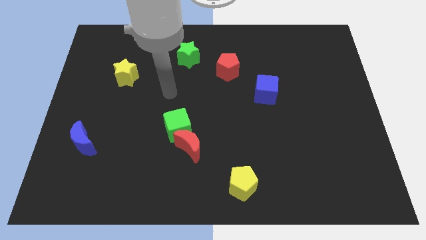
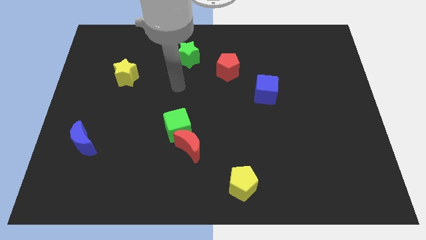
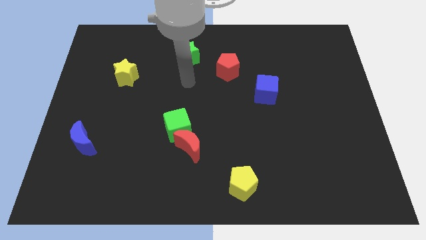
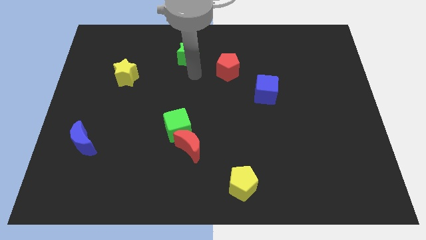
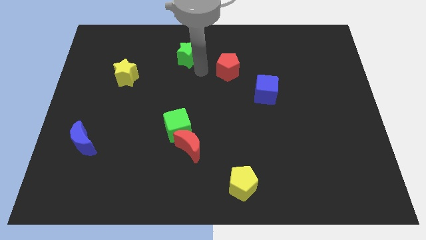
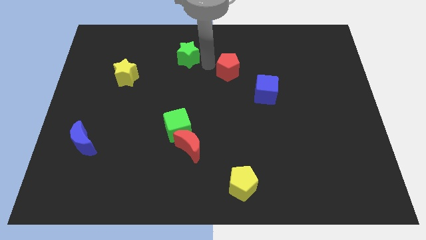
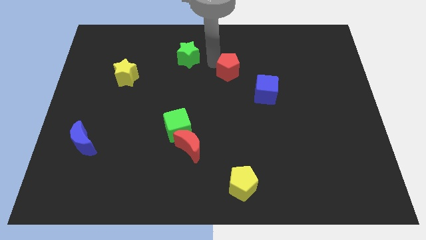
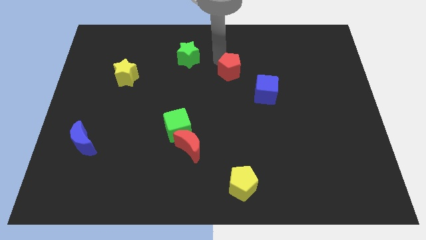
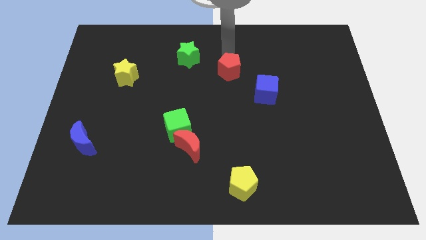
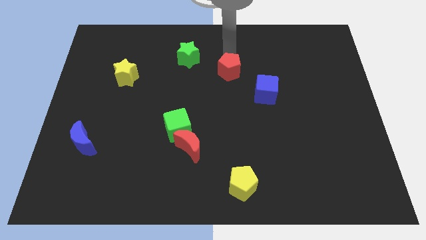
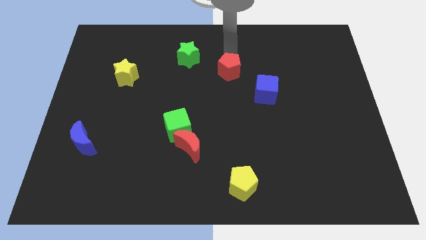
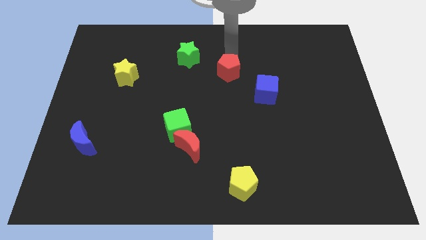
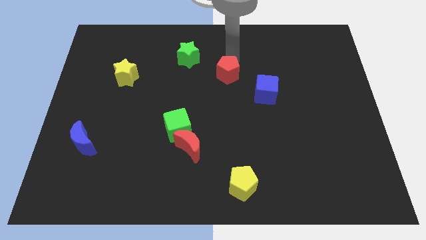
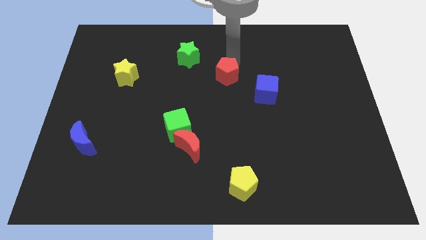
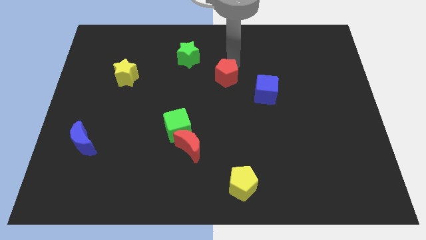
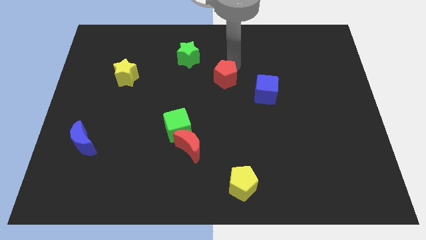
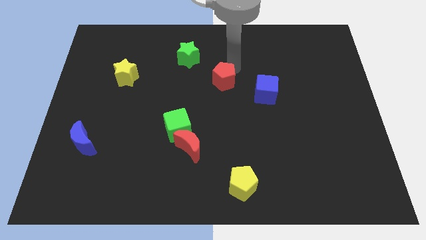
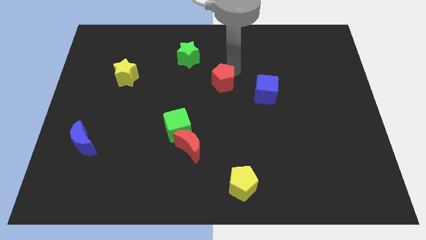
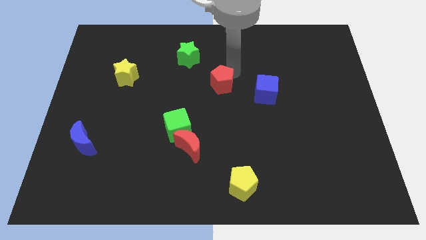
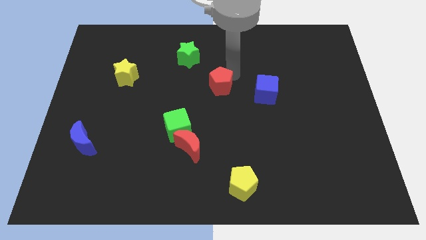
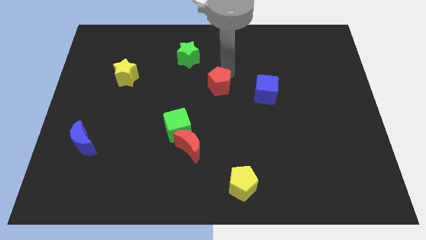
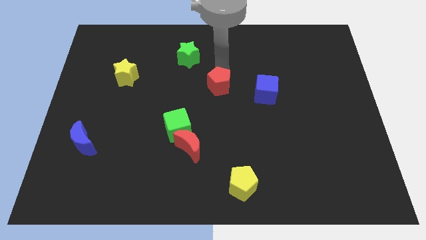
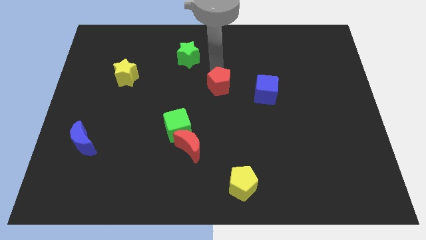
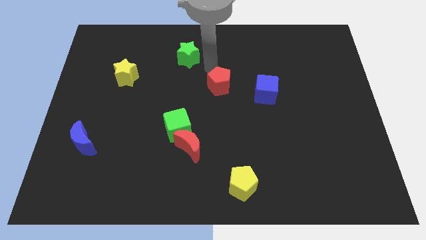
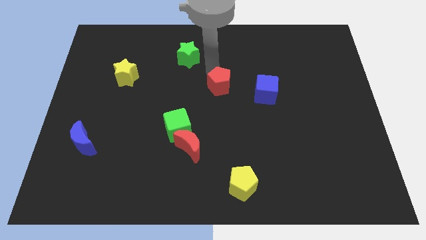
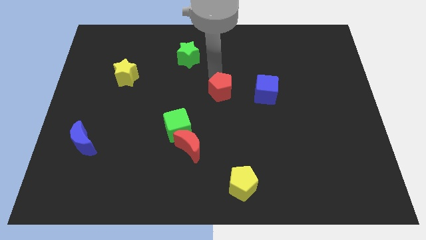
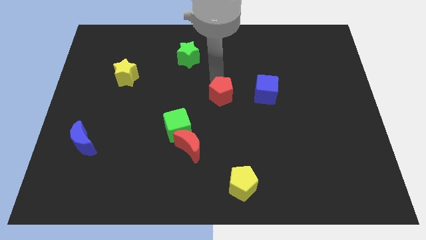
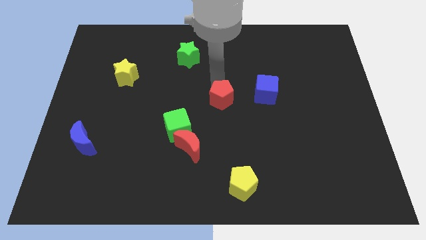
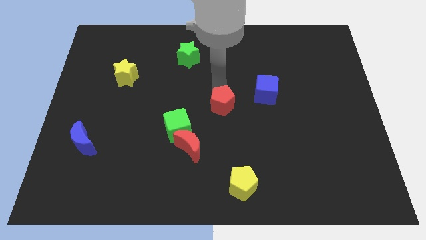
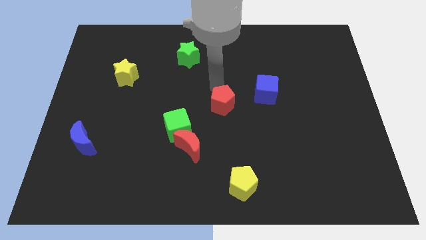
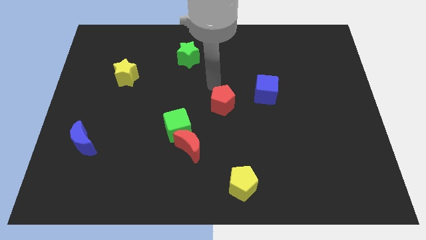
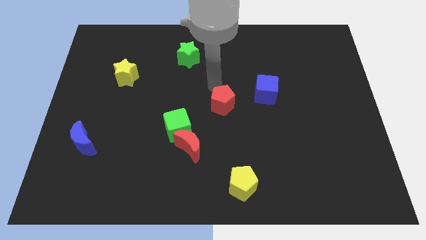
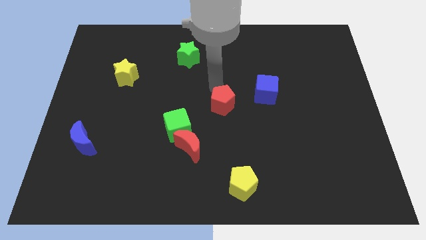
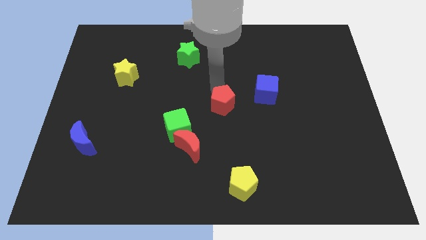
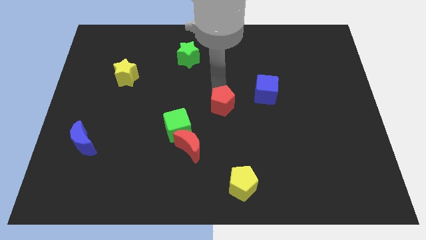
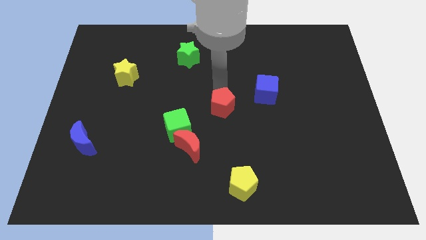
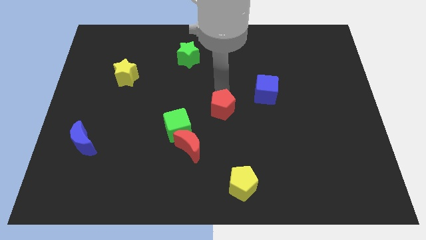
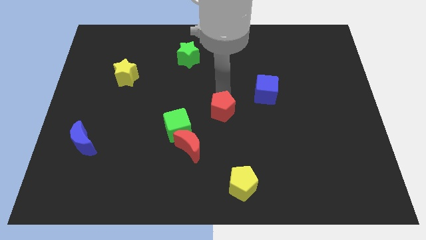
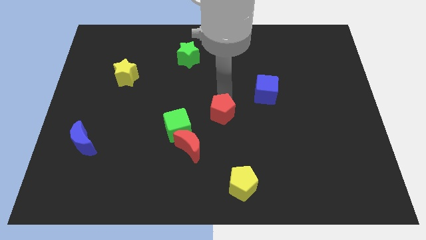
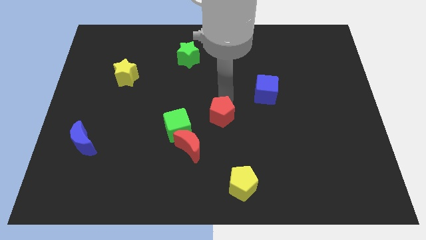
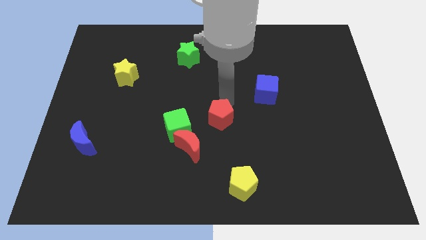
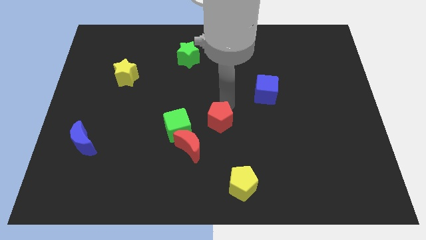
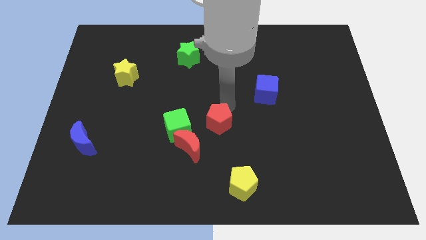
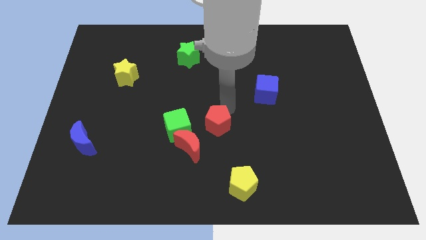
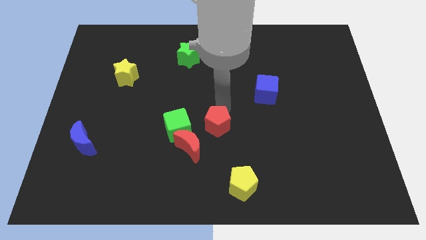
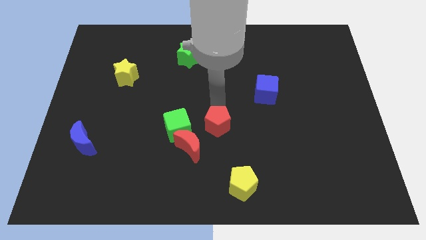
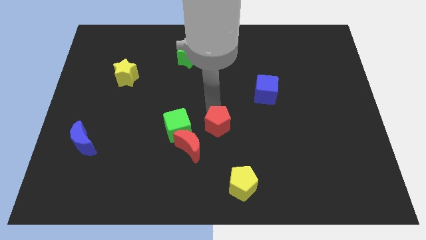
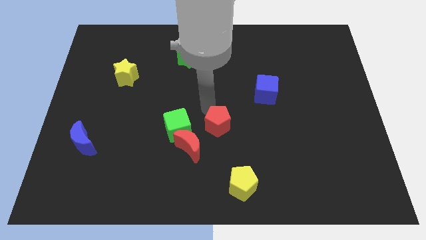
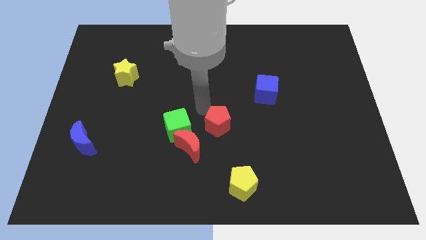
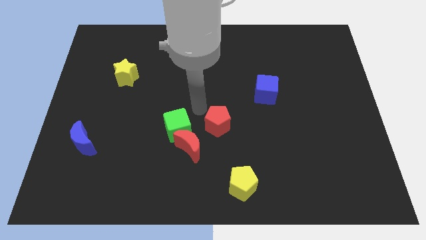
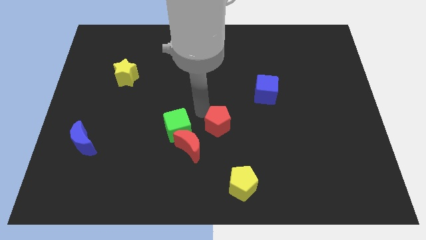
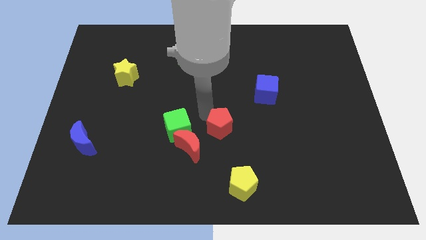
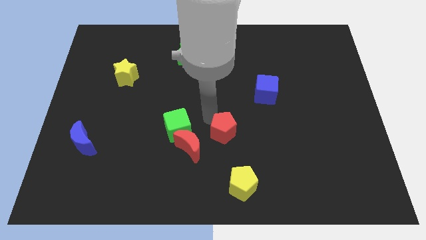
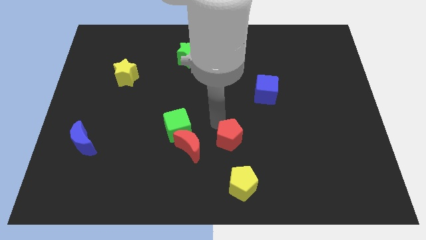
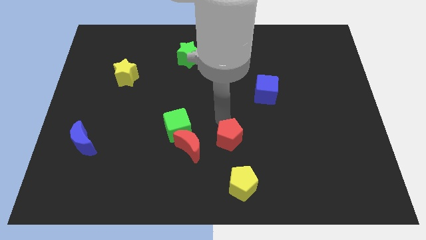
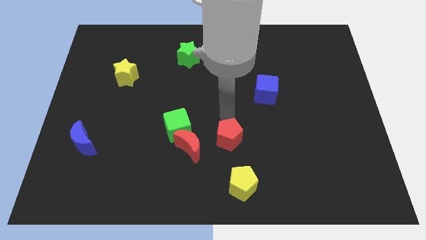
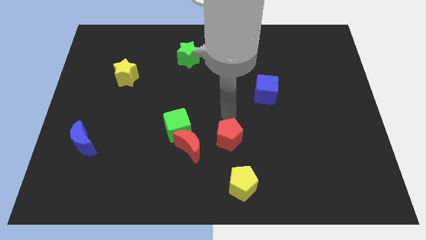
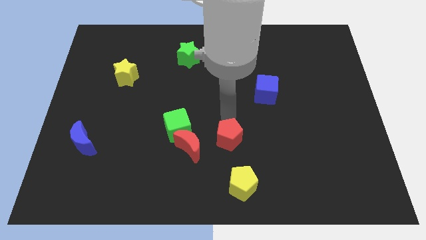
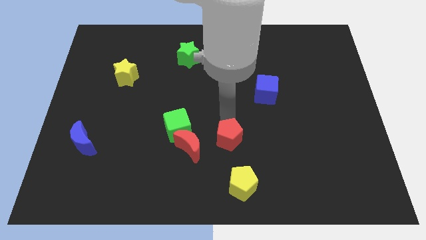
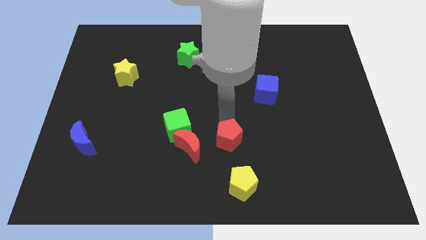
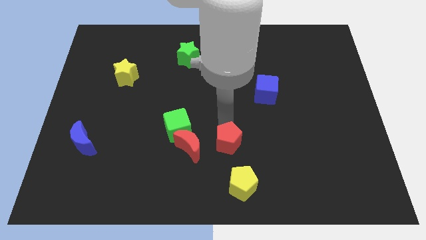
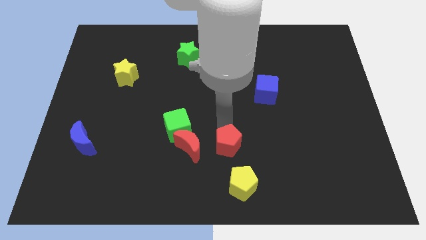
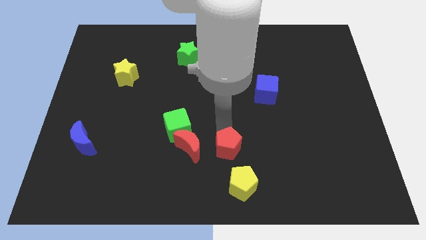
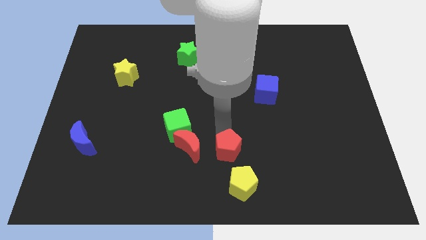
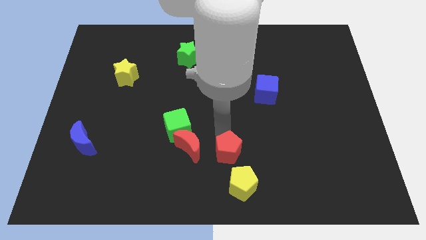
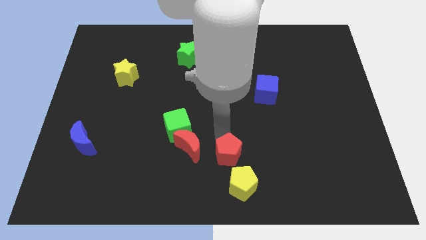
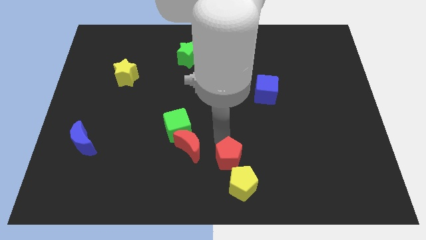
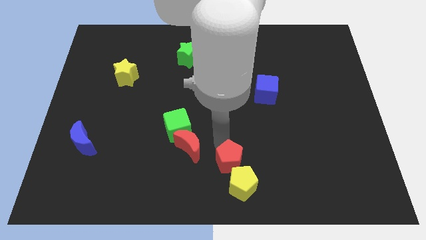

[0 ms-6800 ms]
push the red pentagon close to the yellow pentagon

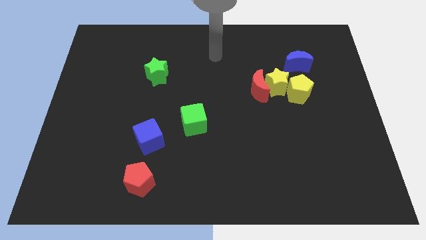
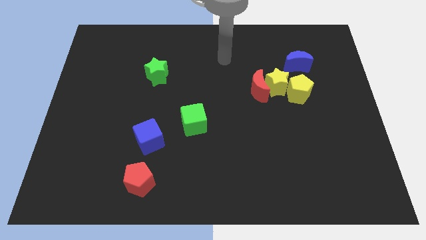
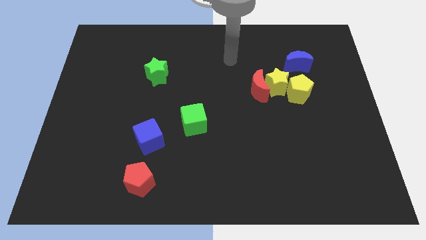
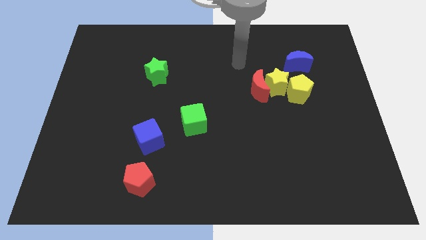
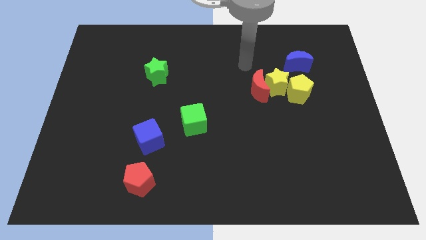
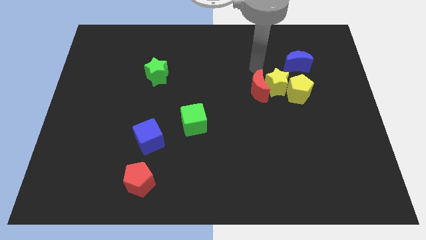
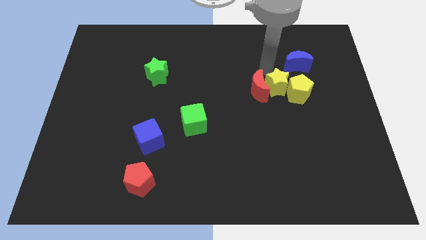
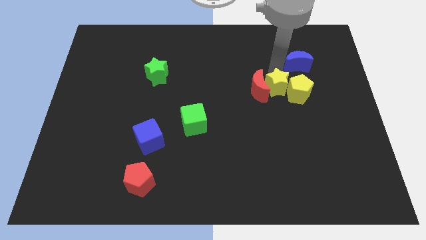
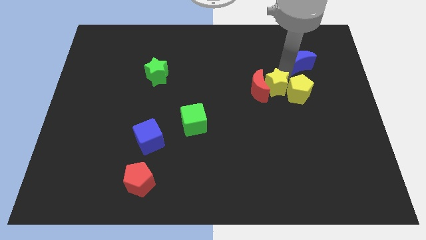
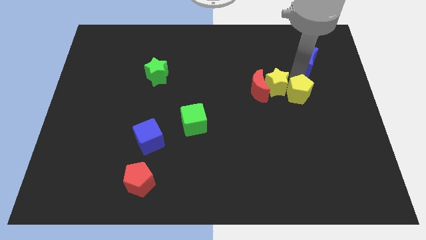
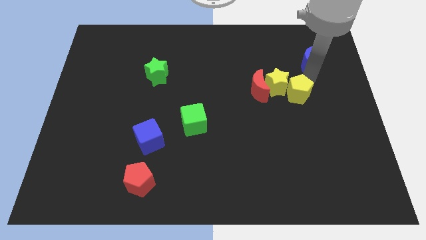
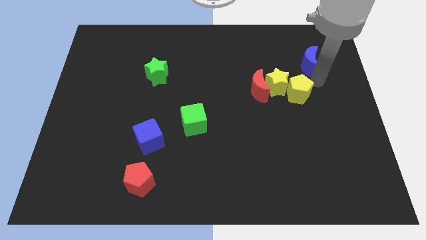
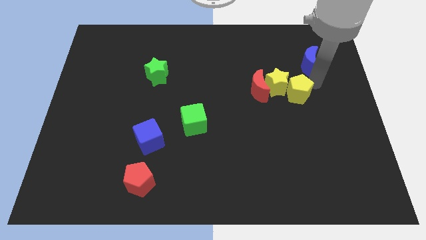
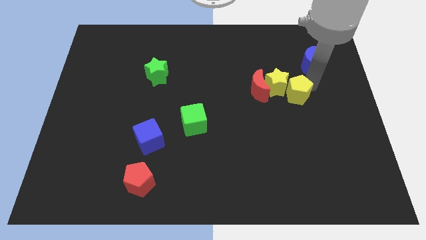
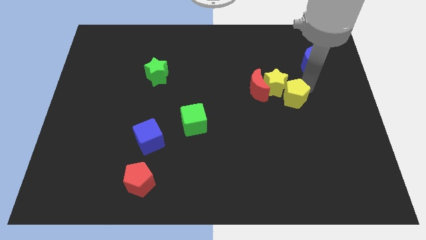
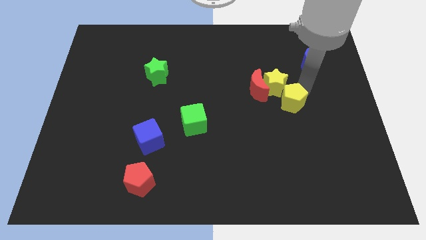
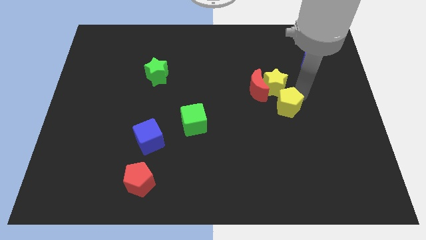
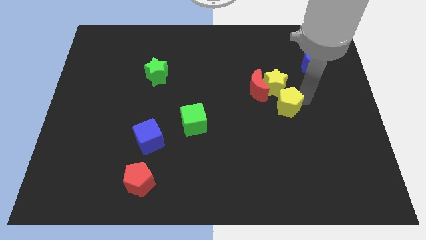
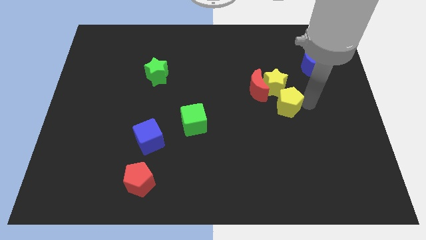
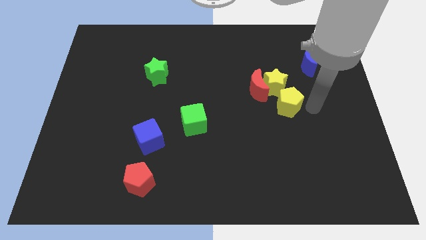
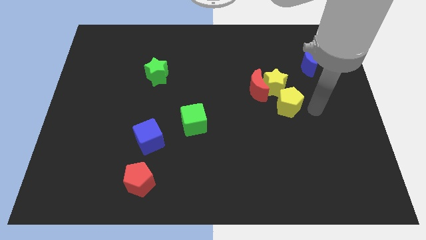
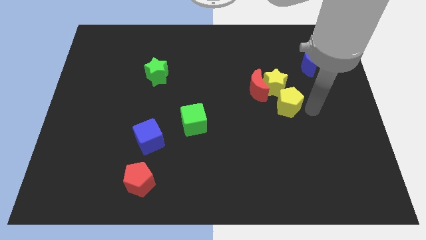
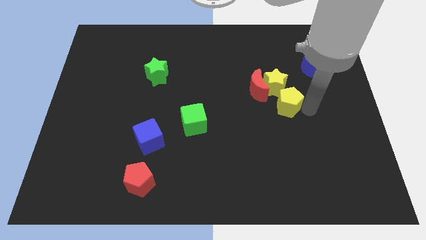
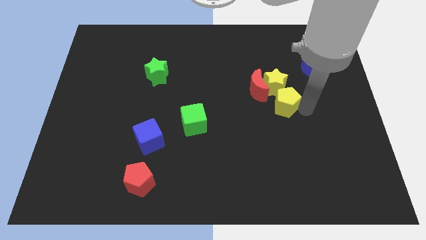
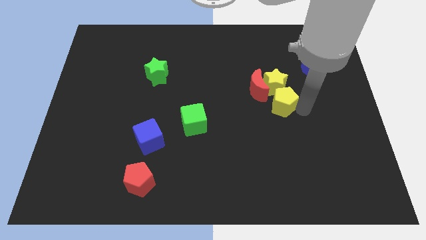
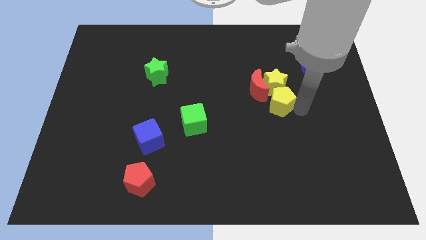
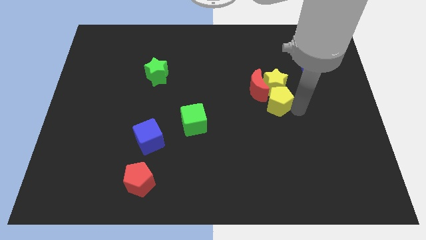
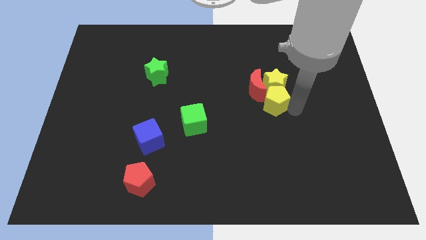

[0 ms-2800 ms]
slide the yellow pentagon to the red moon
